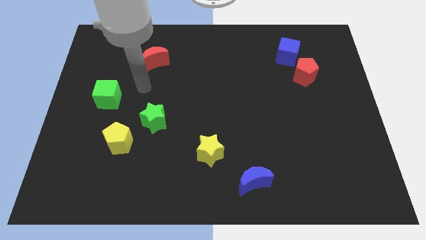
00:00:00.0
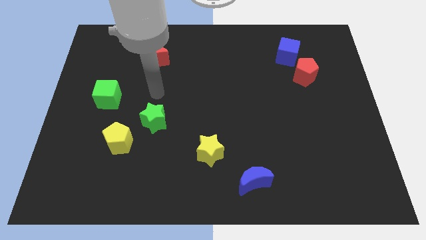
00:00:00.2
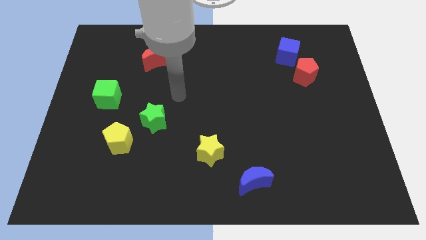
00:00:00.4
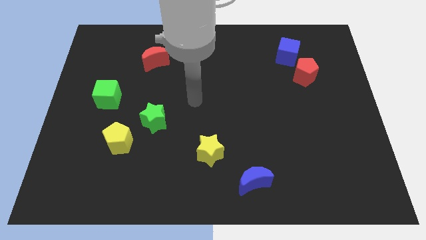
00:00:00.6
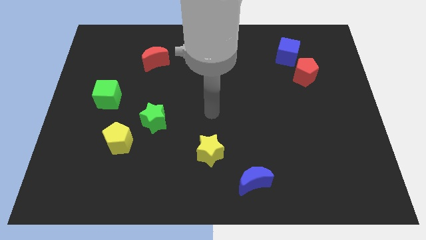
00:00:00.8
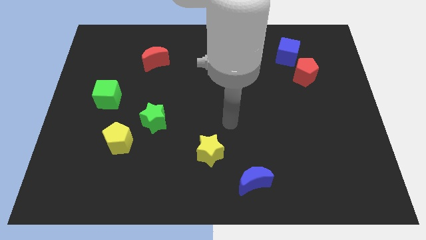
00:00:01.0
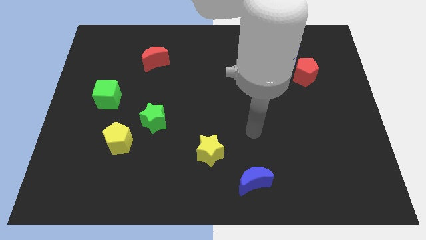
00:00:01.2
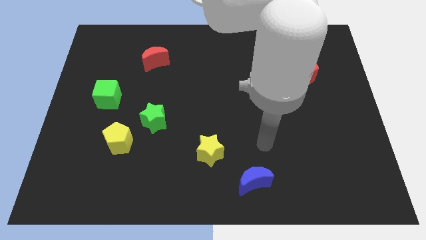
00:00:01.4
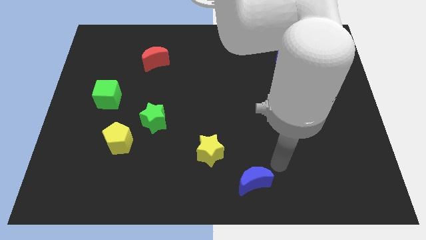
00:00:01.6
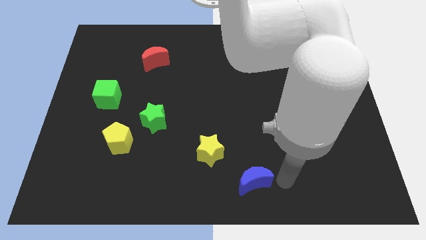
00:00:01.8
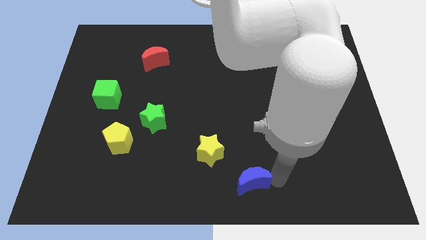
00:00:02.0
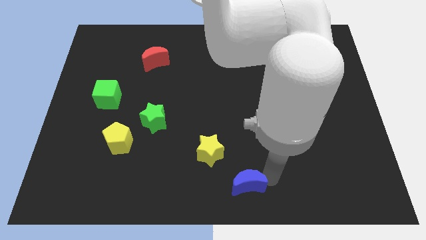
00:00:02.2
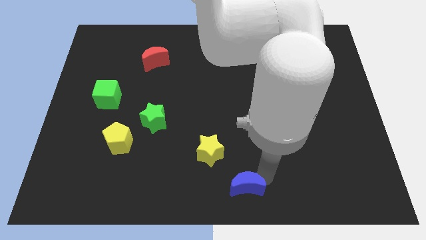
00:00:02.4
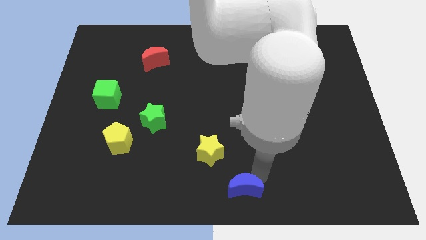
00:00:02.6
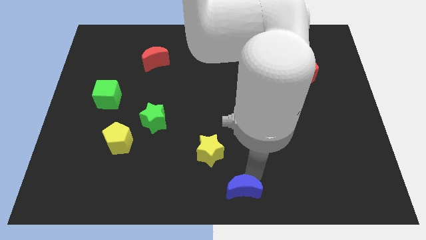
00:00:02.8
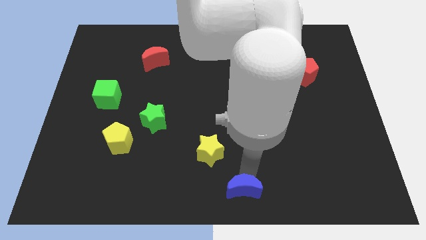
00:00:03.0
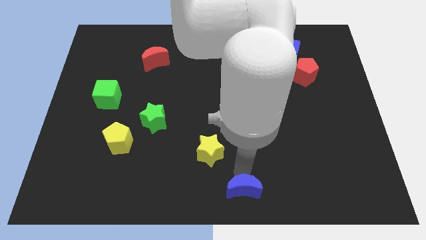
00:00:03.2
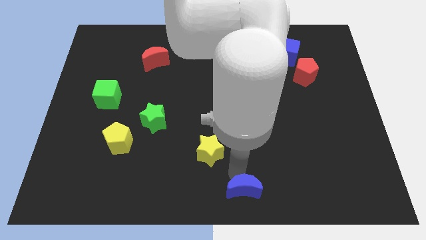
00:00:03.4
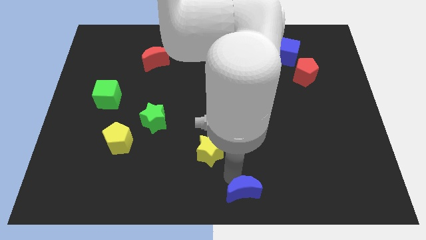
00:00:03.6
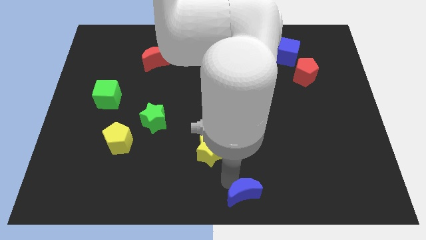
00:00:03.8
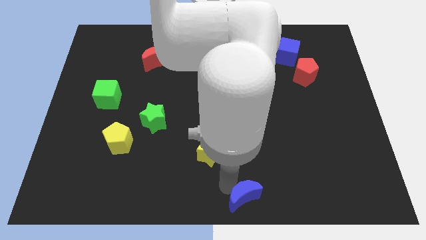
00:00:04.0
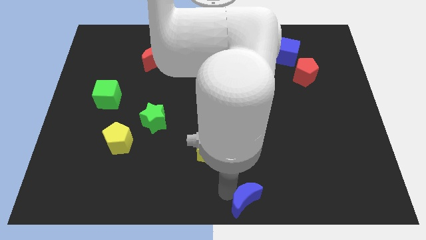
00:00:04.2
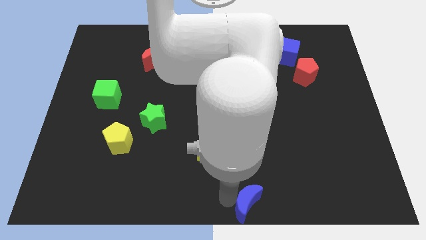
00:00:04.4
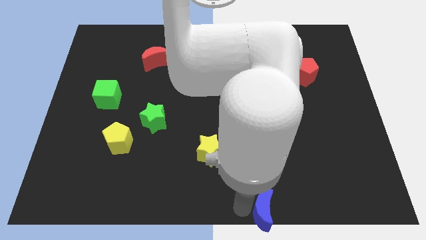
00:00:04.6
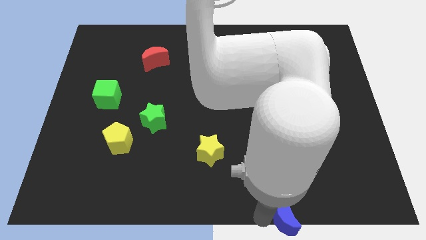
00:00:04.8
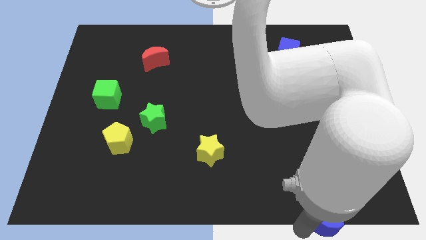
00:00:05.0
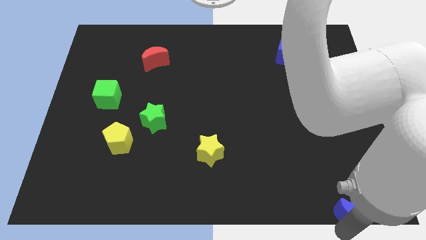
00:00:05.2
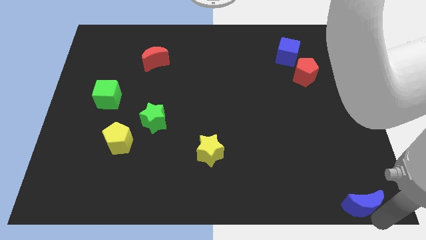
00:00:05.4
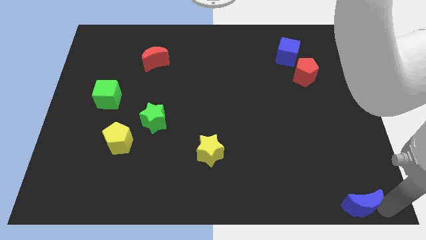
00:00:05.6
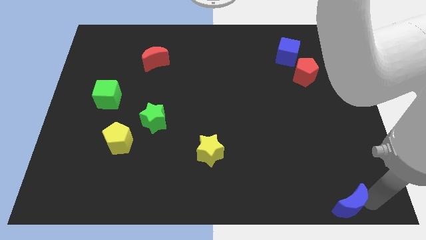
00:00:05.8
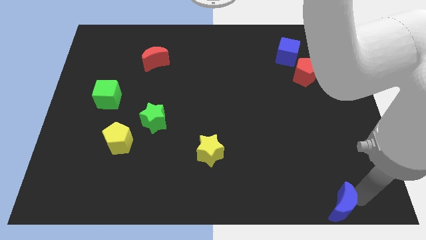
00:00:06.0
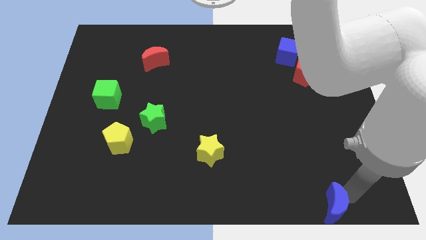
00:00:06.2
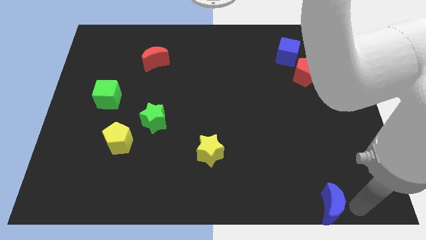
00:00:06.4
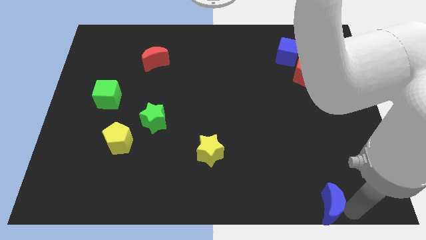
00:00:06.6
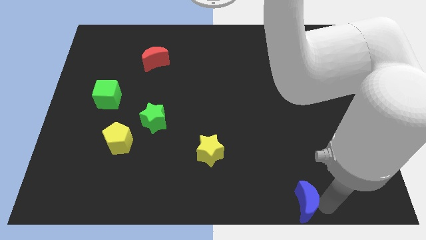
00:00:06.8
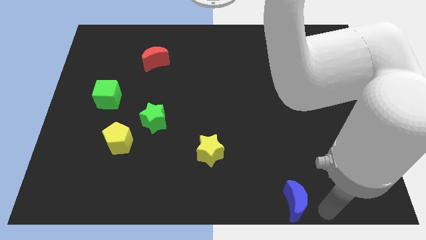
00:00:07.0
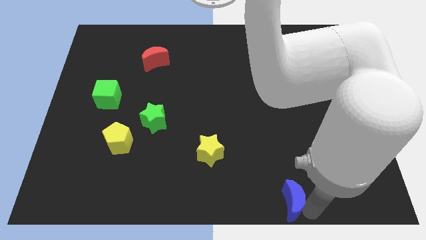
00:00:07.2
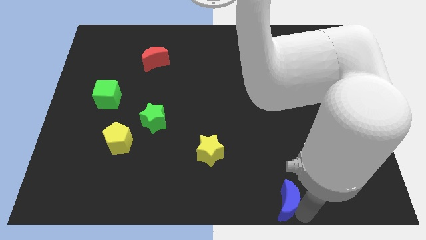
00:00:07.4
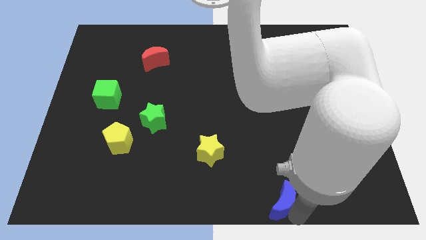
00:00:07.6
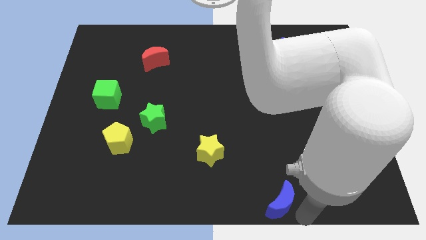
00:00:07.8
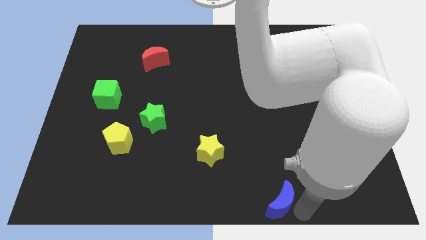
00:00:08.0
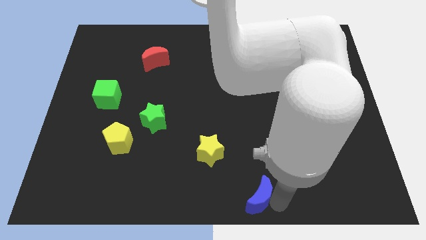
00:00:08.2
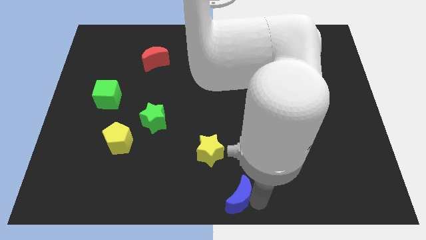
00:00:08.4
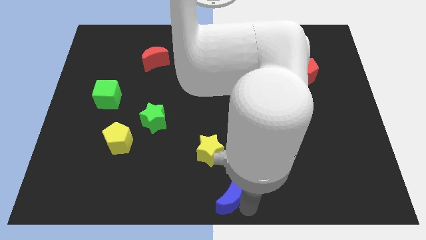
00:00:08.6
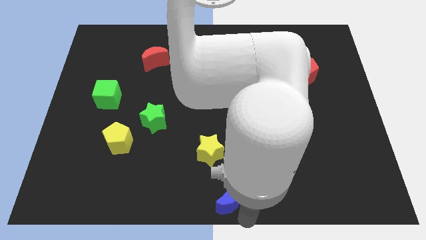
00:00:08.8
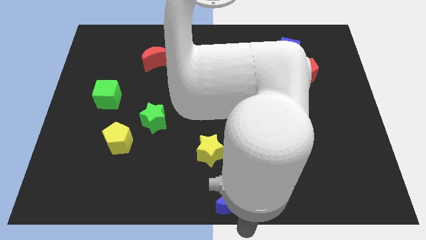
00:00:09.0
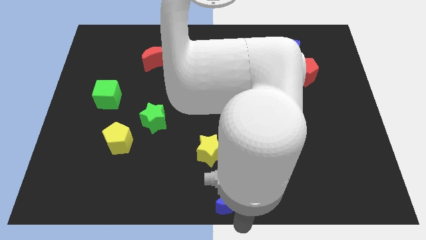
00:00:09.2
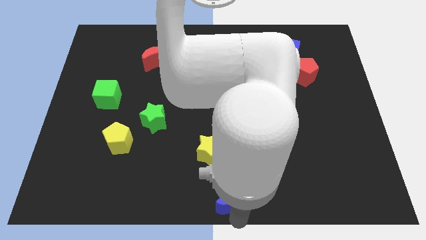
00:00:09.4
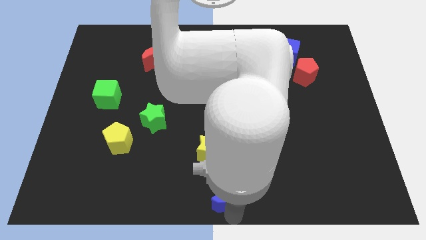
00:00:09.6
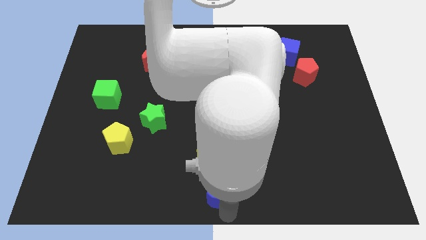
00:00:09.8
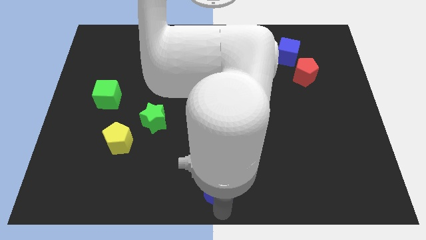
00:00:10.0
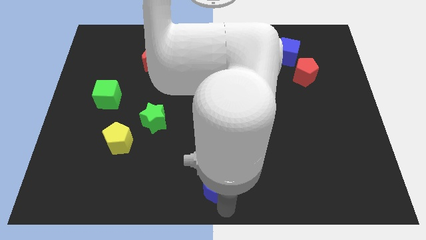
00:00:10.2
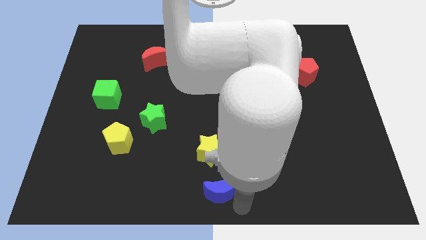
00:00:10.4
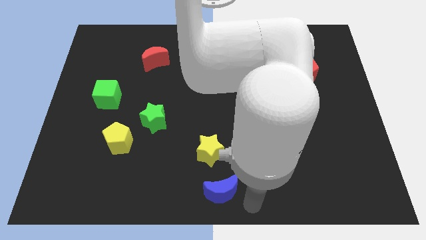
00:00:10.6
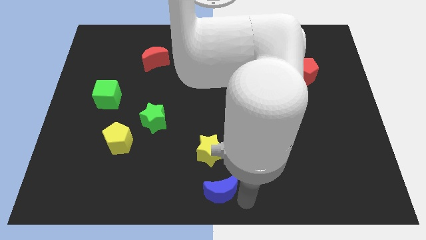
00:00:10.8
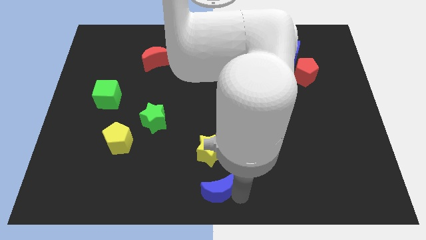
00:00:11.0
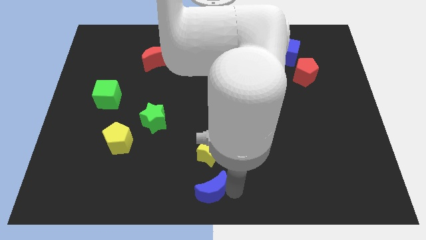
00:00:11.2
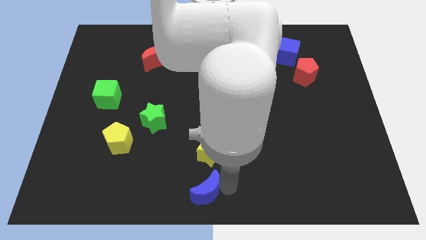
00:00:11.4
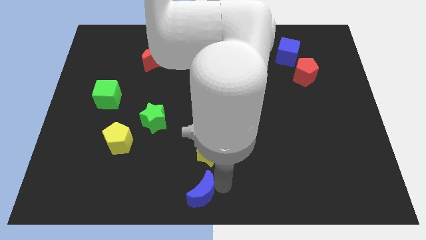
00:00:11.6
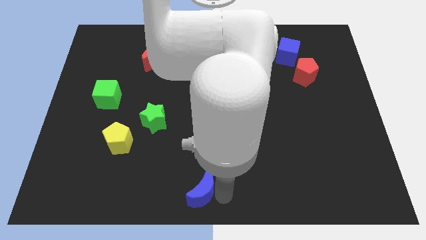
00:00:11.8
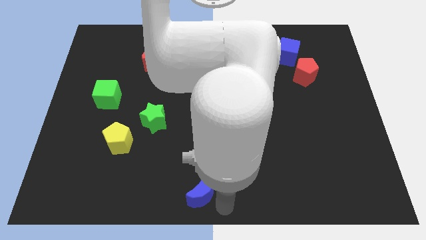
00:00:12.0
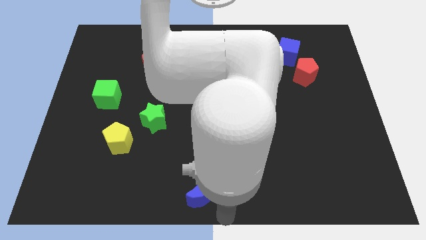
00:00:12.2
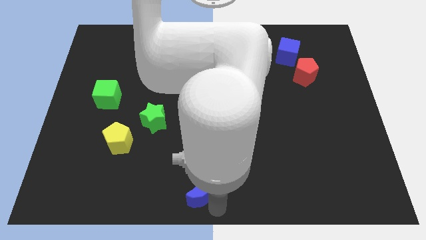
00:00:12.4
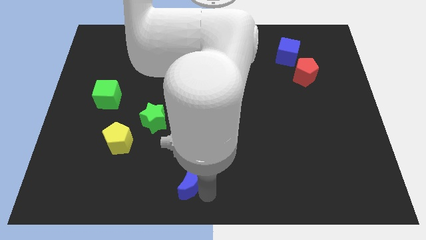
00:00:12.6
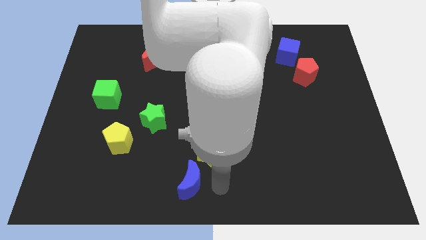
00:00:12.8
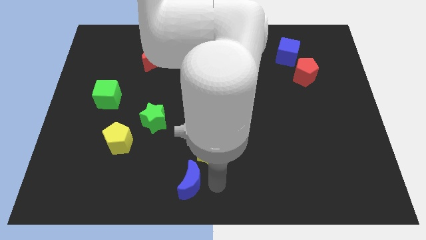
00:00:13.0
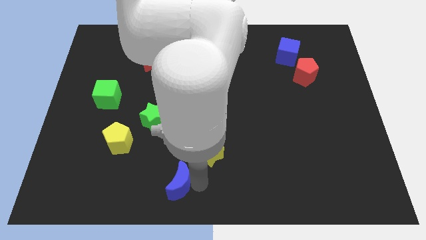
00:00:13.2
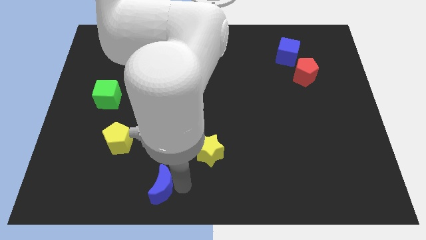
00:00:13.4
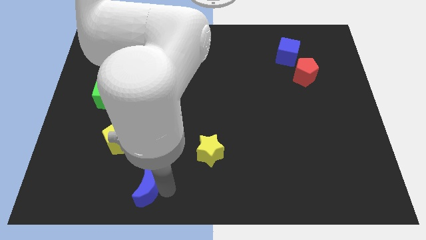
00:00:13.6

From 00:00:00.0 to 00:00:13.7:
push the blue moon left

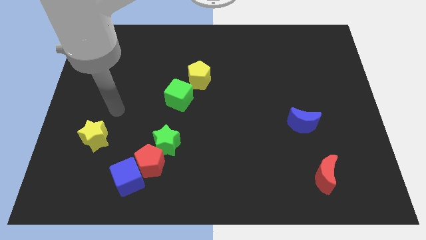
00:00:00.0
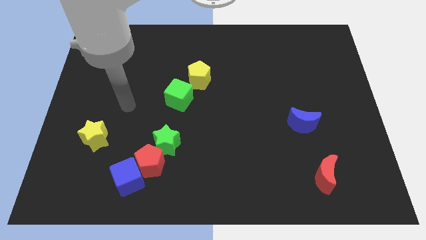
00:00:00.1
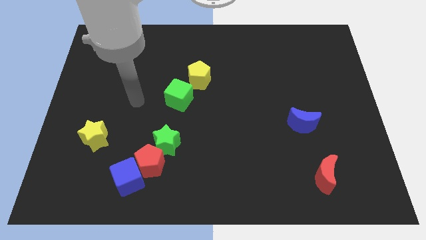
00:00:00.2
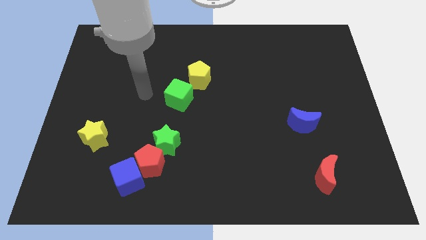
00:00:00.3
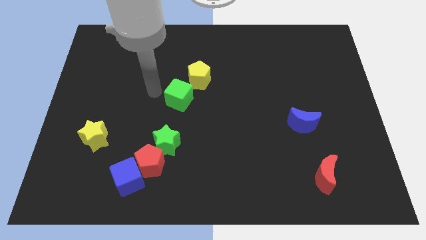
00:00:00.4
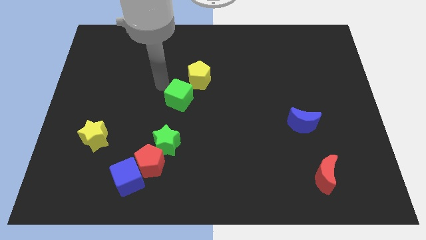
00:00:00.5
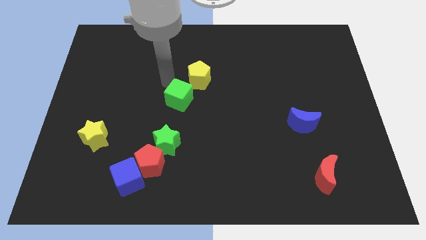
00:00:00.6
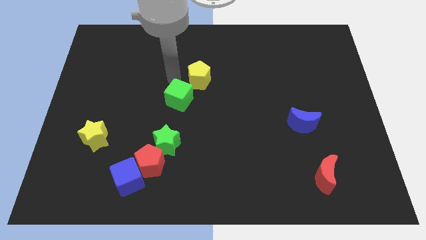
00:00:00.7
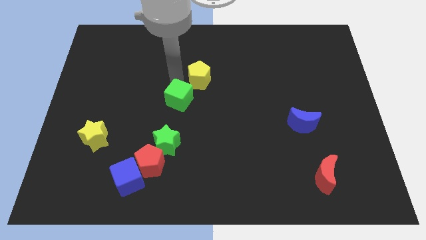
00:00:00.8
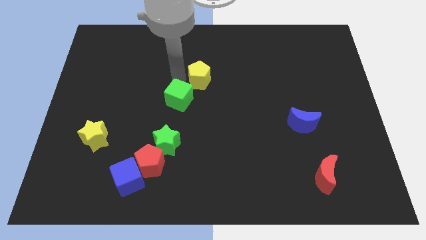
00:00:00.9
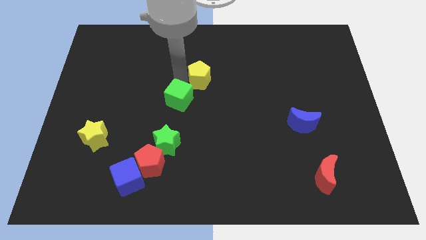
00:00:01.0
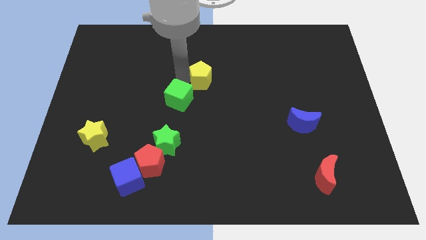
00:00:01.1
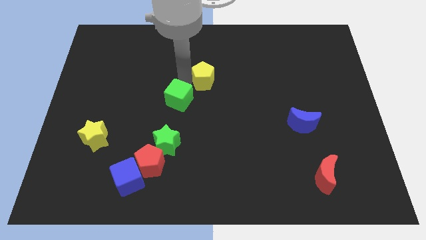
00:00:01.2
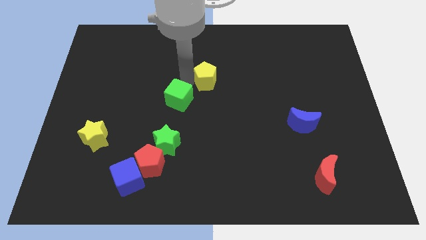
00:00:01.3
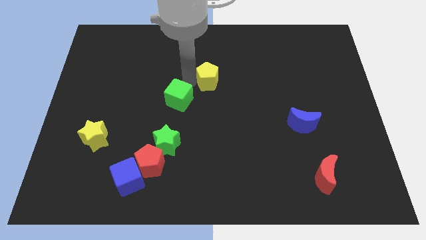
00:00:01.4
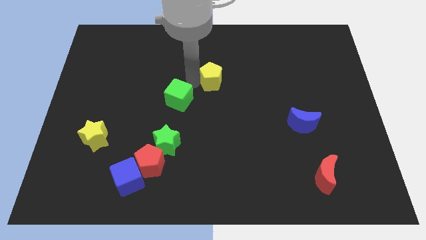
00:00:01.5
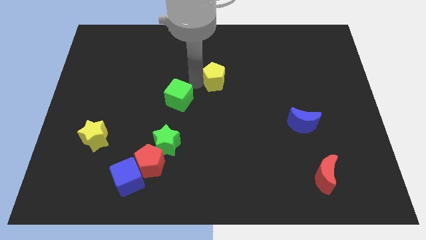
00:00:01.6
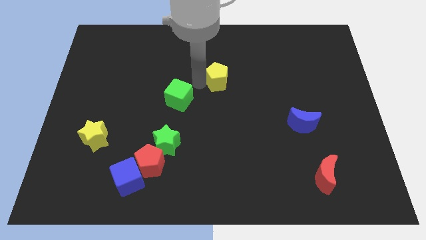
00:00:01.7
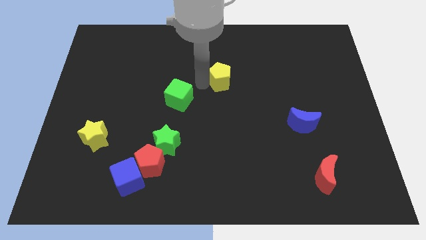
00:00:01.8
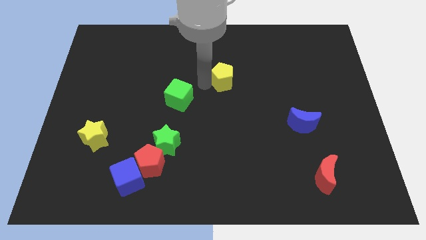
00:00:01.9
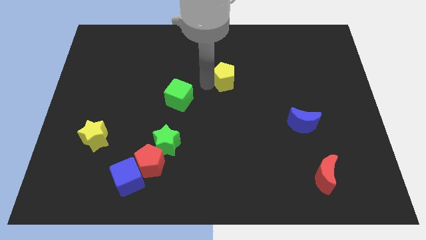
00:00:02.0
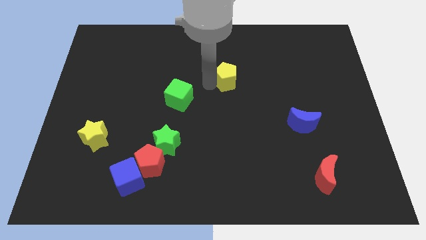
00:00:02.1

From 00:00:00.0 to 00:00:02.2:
slide the yellow pentagon right a little bit
